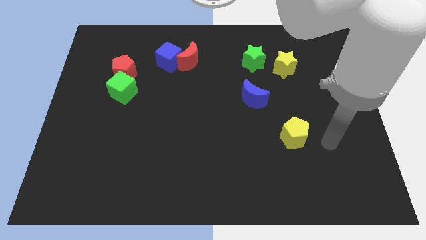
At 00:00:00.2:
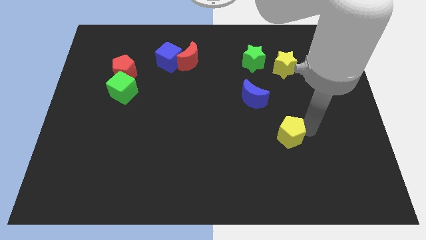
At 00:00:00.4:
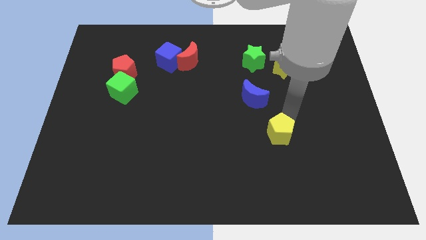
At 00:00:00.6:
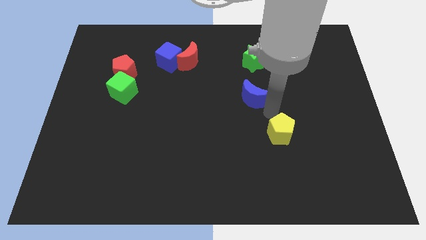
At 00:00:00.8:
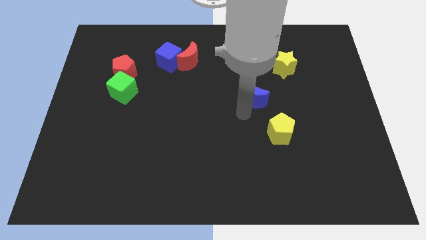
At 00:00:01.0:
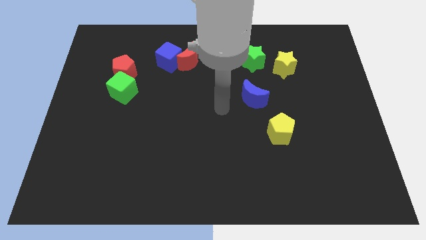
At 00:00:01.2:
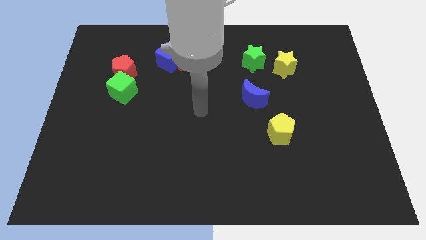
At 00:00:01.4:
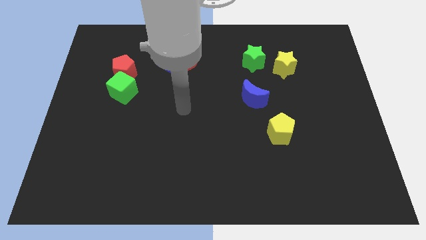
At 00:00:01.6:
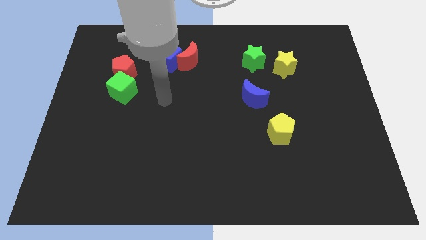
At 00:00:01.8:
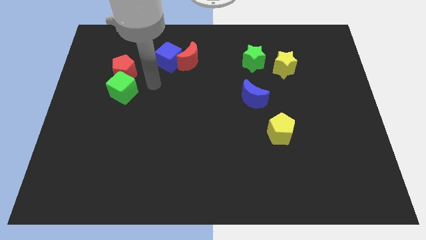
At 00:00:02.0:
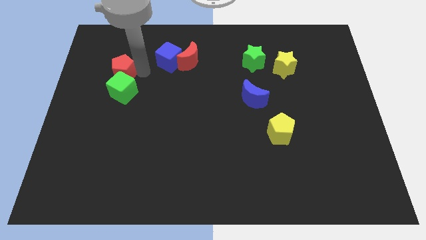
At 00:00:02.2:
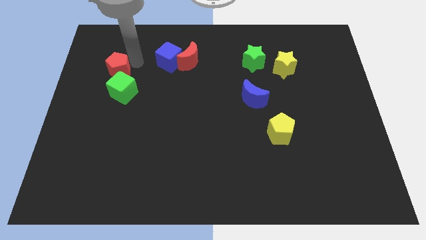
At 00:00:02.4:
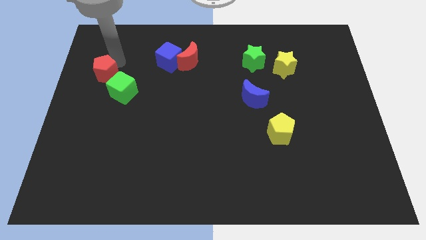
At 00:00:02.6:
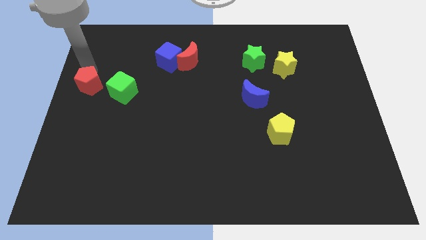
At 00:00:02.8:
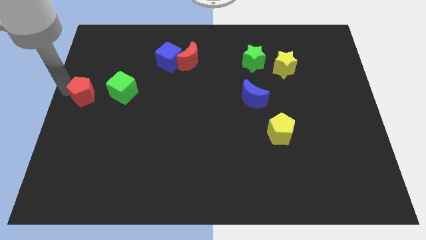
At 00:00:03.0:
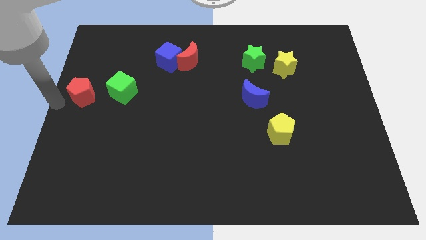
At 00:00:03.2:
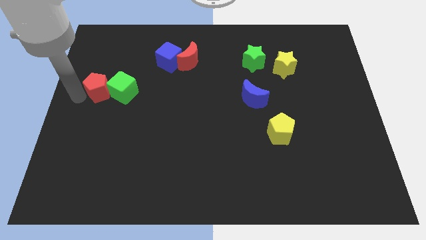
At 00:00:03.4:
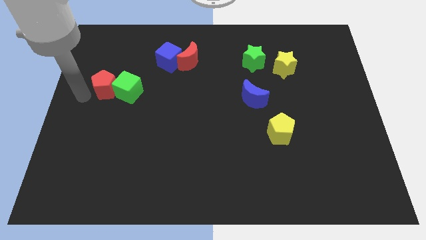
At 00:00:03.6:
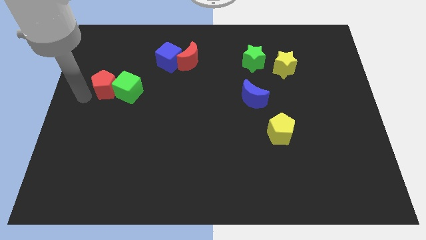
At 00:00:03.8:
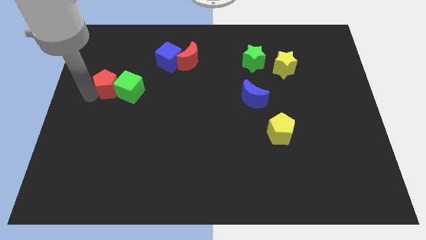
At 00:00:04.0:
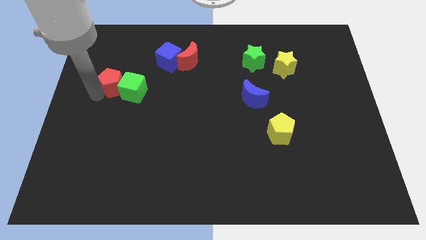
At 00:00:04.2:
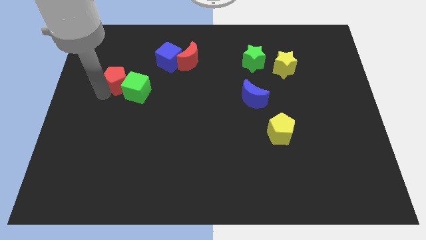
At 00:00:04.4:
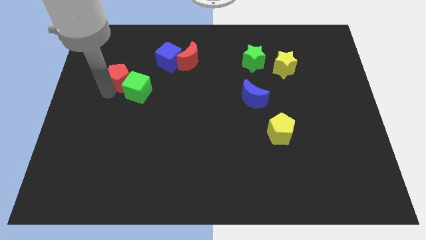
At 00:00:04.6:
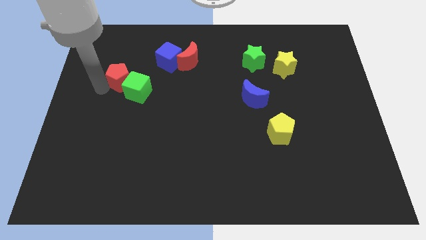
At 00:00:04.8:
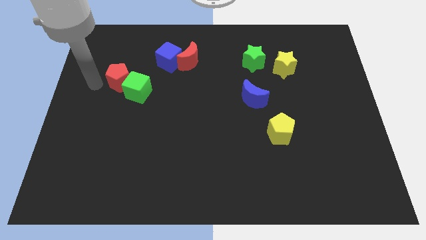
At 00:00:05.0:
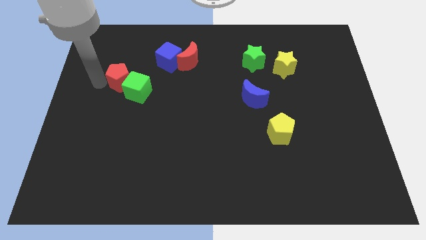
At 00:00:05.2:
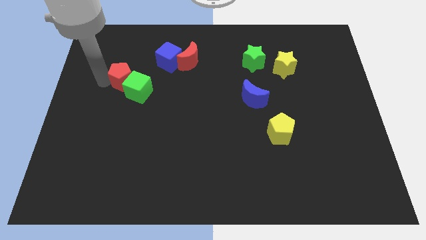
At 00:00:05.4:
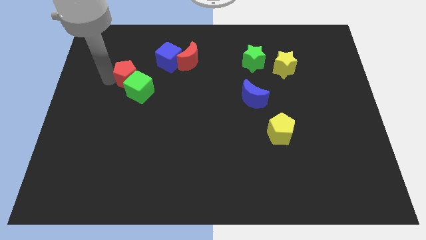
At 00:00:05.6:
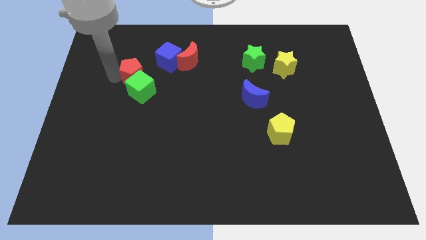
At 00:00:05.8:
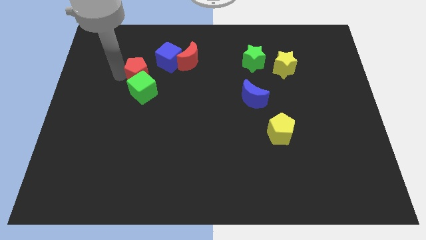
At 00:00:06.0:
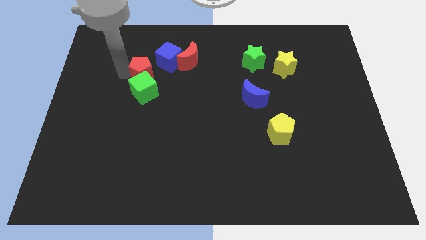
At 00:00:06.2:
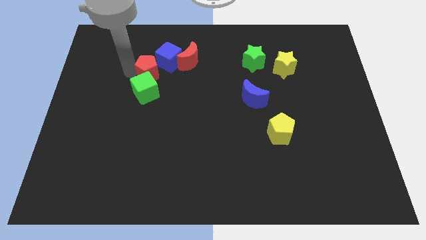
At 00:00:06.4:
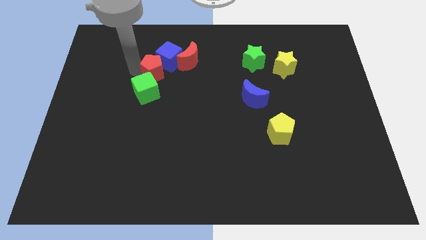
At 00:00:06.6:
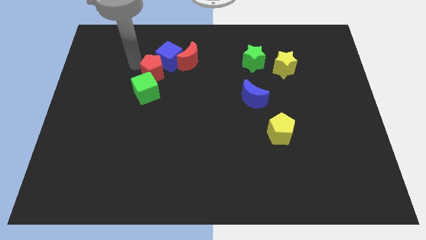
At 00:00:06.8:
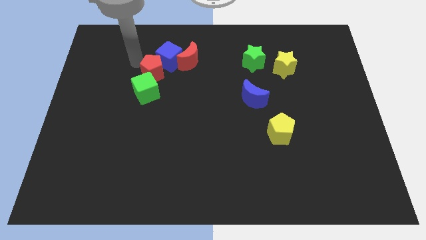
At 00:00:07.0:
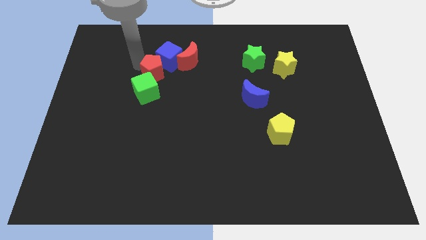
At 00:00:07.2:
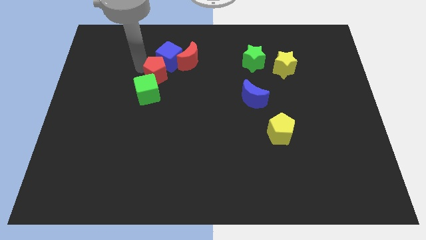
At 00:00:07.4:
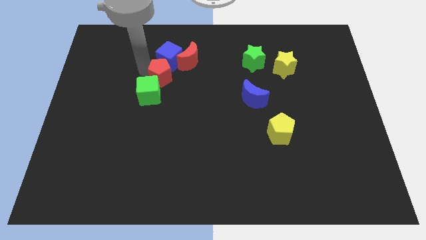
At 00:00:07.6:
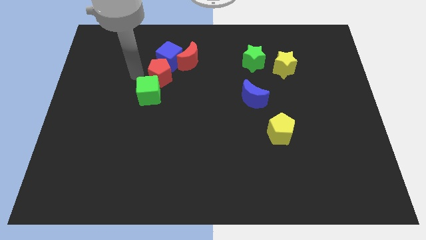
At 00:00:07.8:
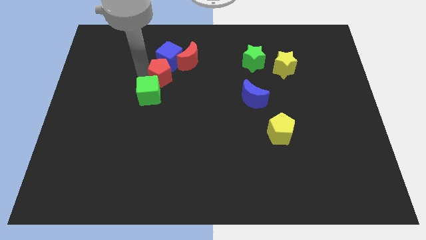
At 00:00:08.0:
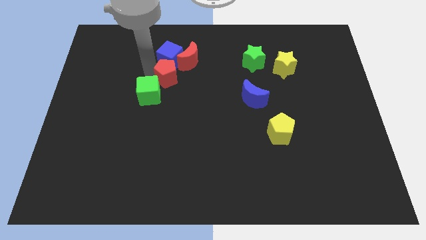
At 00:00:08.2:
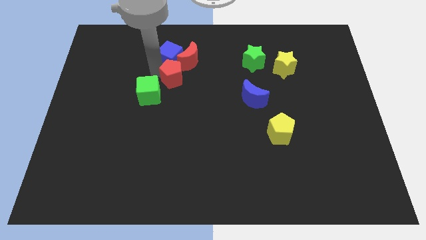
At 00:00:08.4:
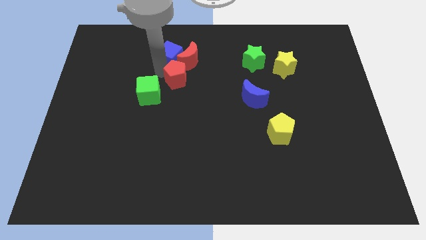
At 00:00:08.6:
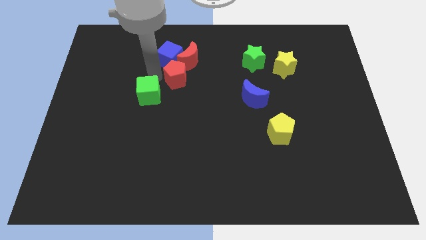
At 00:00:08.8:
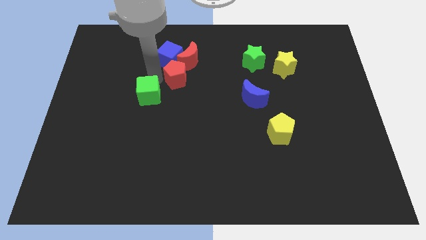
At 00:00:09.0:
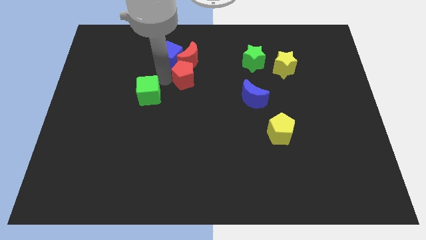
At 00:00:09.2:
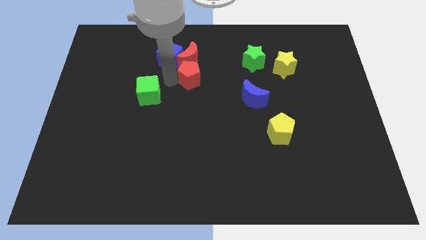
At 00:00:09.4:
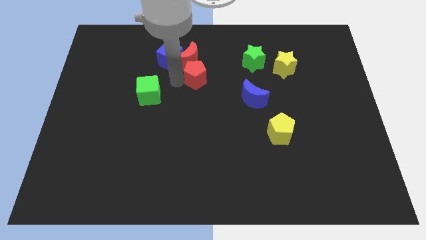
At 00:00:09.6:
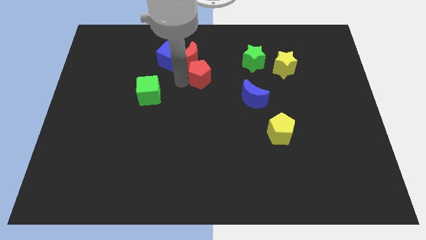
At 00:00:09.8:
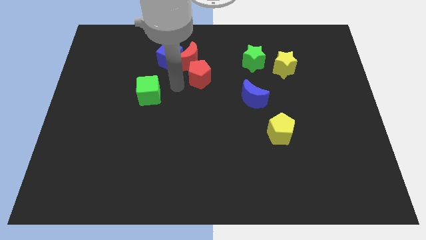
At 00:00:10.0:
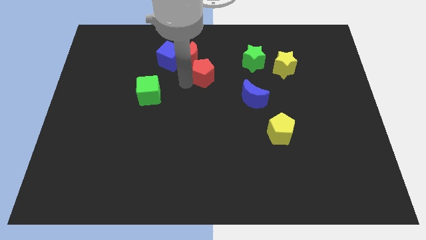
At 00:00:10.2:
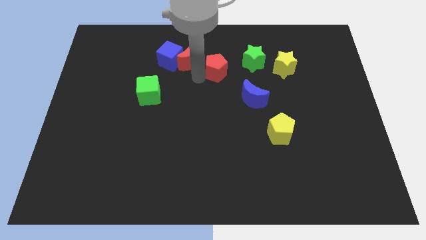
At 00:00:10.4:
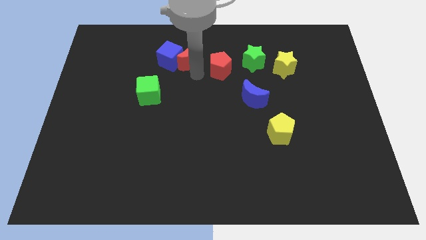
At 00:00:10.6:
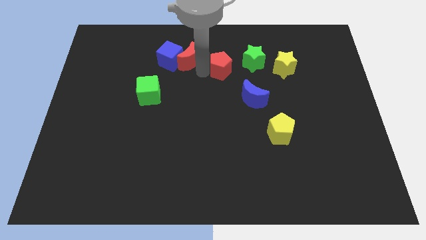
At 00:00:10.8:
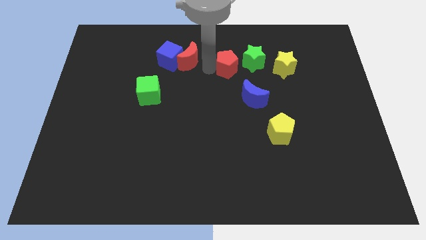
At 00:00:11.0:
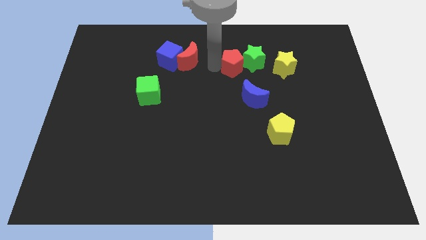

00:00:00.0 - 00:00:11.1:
move the red pentagon towards the green star

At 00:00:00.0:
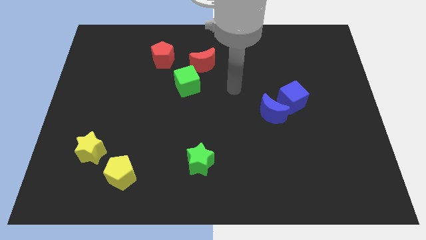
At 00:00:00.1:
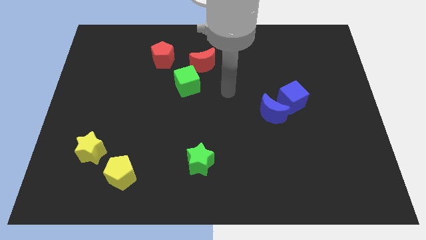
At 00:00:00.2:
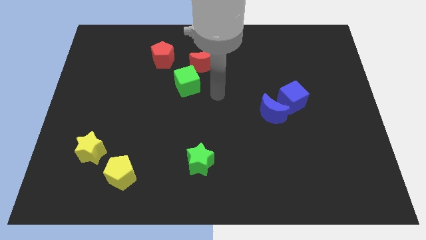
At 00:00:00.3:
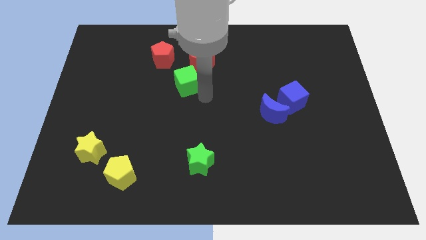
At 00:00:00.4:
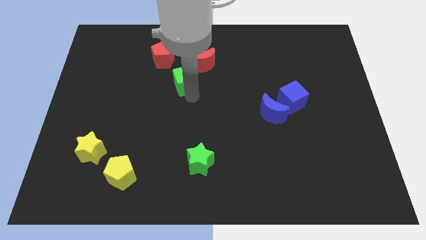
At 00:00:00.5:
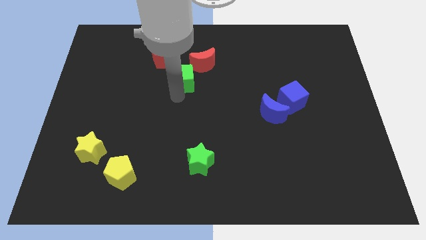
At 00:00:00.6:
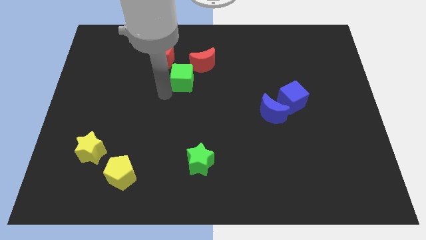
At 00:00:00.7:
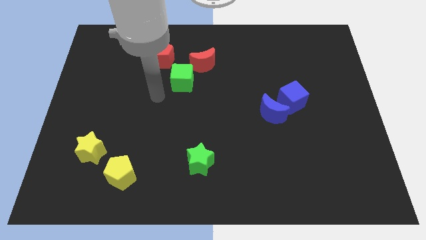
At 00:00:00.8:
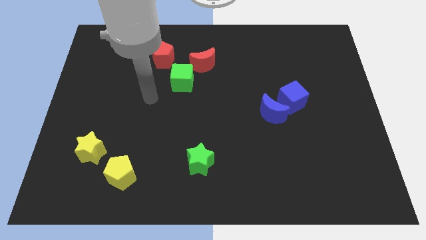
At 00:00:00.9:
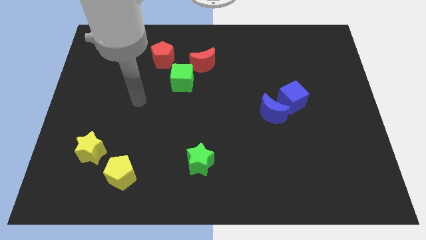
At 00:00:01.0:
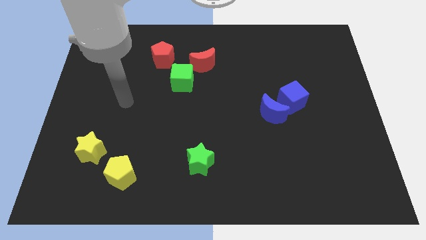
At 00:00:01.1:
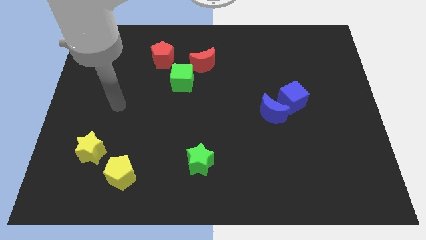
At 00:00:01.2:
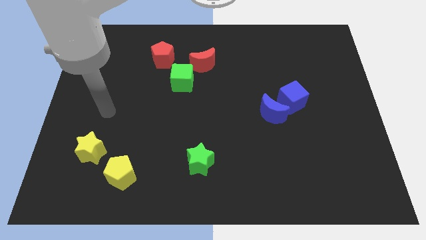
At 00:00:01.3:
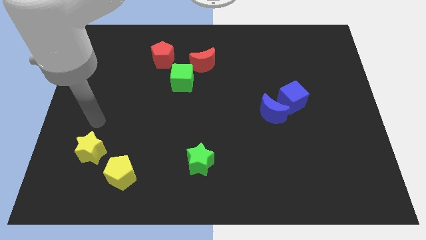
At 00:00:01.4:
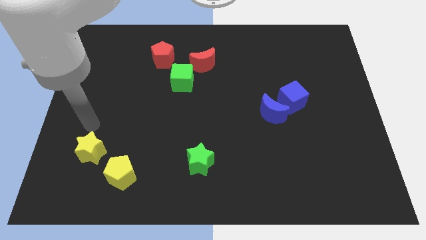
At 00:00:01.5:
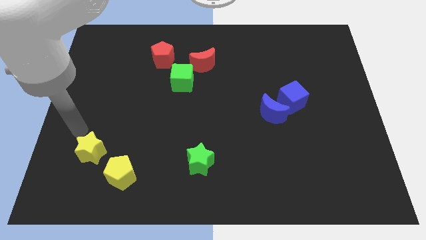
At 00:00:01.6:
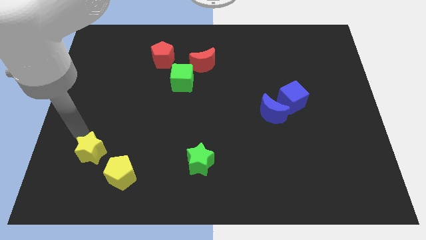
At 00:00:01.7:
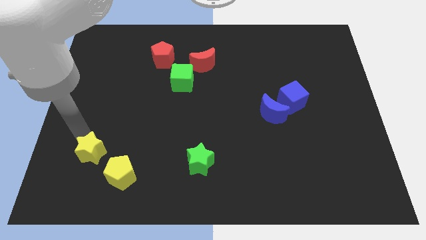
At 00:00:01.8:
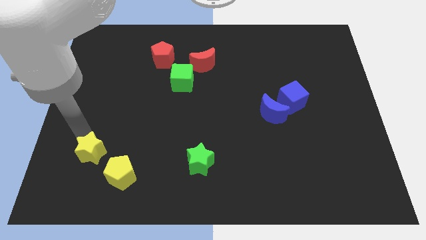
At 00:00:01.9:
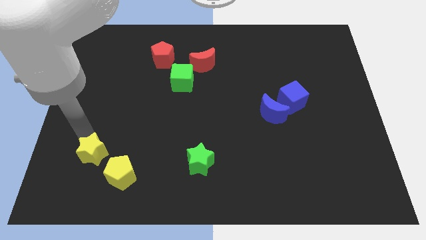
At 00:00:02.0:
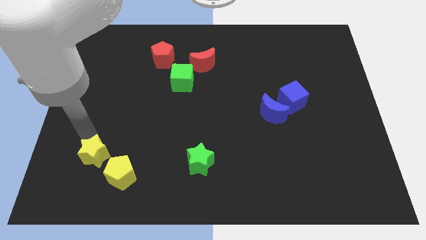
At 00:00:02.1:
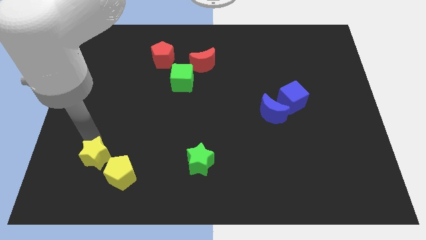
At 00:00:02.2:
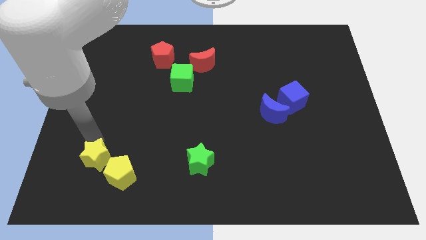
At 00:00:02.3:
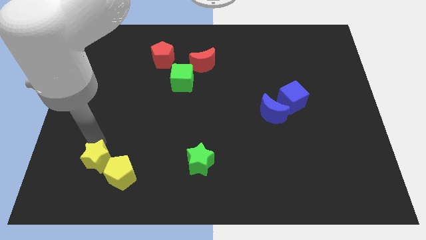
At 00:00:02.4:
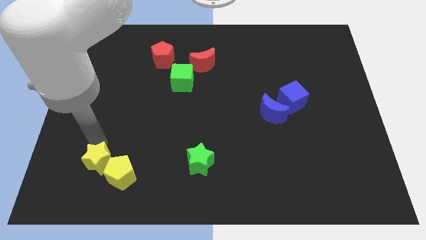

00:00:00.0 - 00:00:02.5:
put the yellow star next to the yellow pentagon
